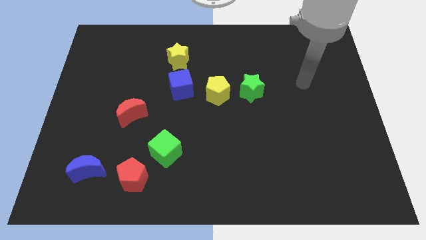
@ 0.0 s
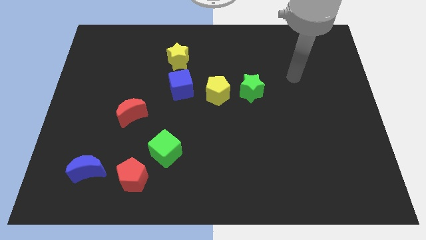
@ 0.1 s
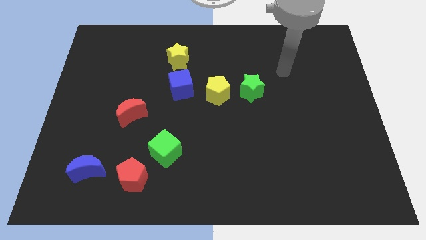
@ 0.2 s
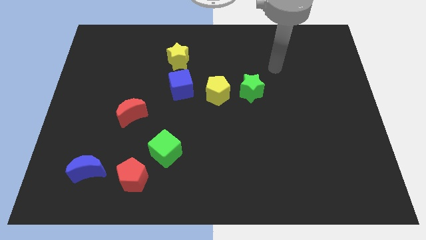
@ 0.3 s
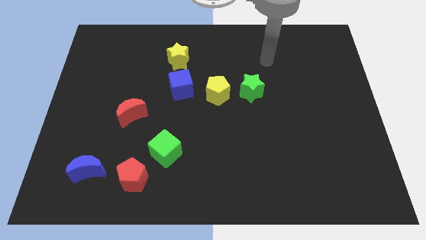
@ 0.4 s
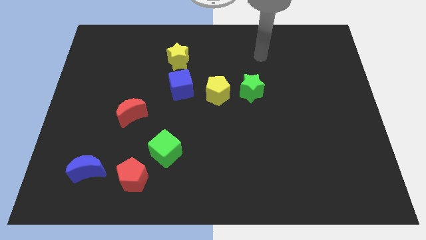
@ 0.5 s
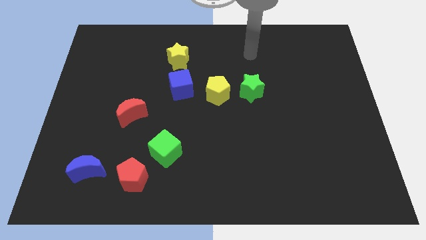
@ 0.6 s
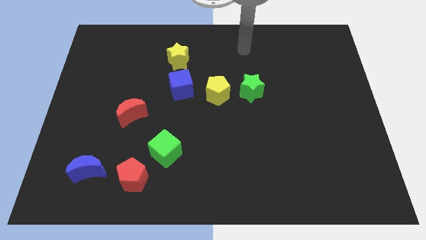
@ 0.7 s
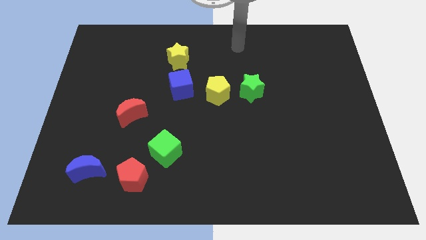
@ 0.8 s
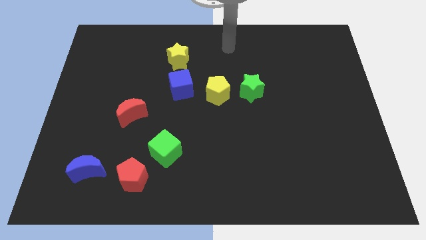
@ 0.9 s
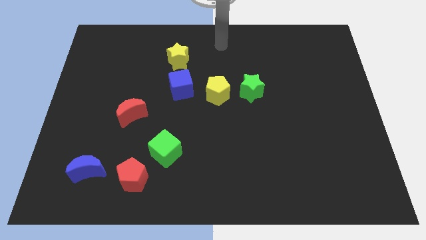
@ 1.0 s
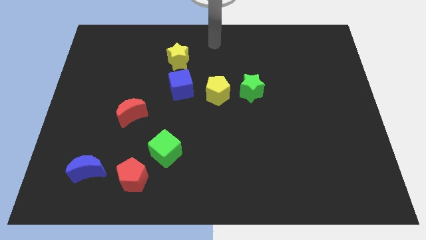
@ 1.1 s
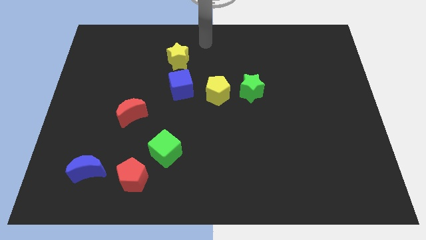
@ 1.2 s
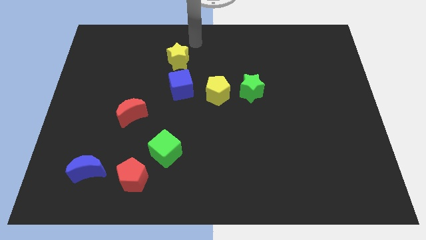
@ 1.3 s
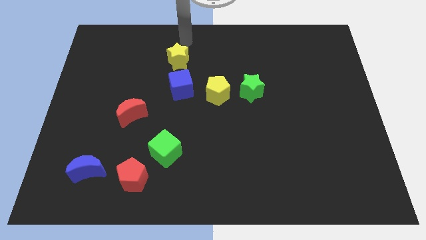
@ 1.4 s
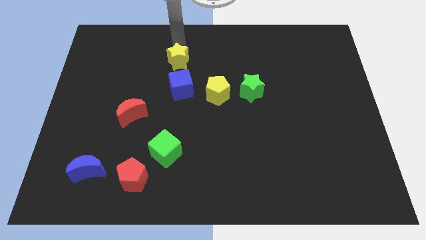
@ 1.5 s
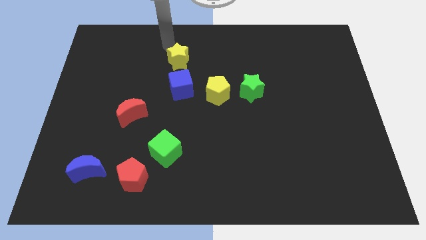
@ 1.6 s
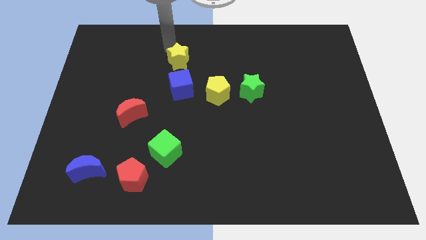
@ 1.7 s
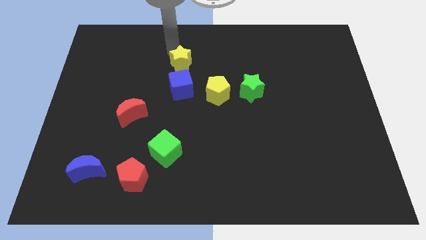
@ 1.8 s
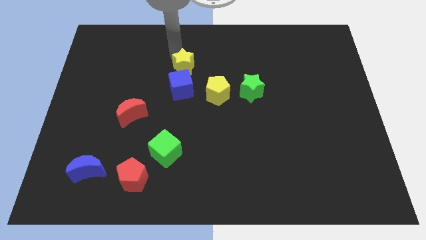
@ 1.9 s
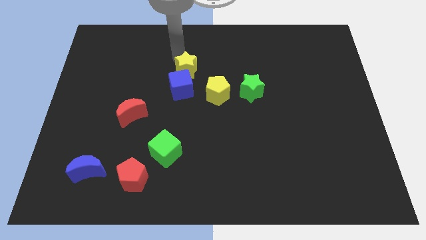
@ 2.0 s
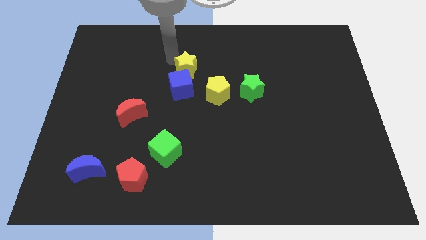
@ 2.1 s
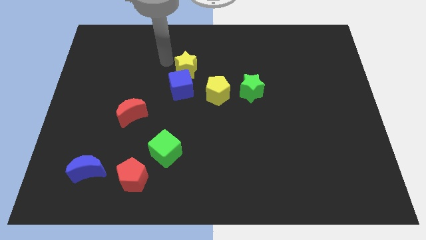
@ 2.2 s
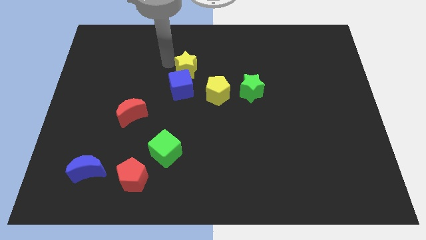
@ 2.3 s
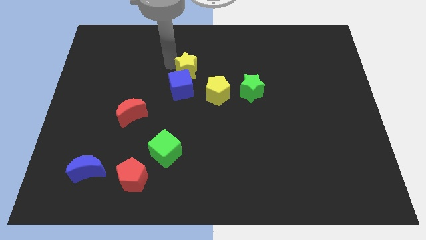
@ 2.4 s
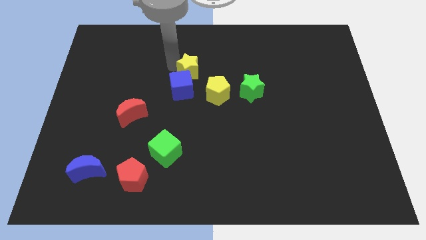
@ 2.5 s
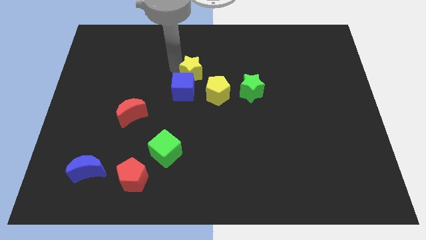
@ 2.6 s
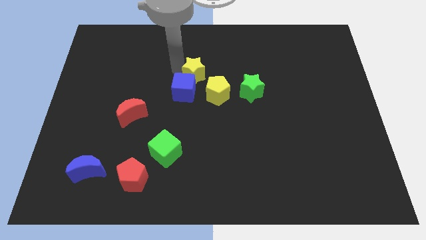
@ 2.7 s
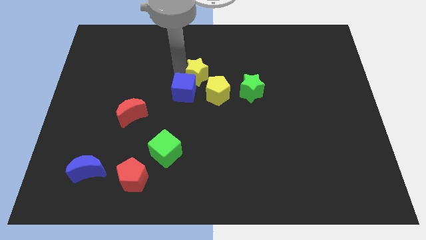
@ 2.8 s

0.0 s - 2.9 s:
slightly move the yellow star downwards and then right

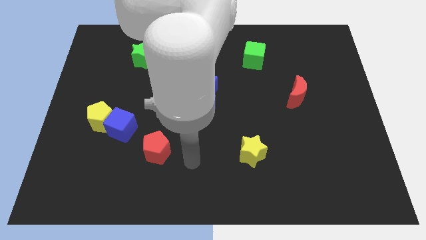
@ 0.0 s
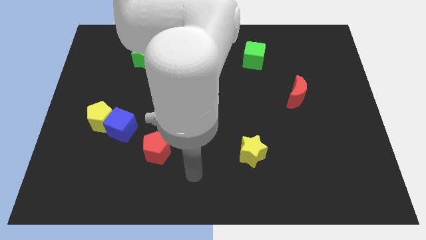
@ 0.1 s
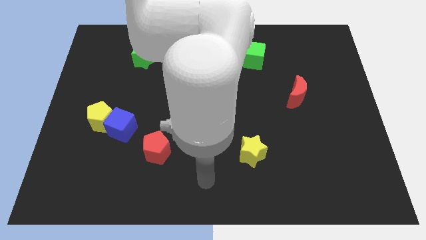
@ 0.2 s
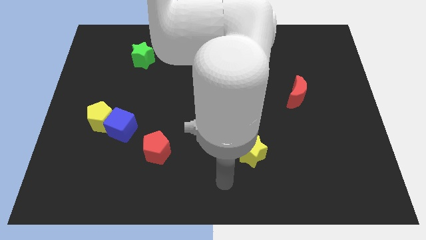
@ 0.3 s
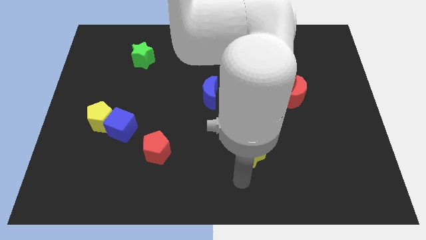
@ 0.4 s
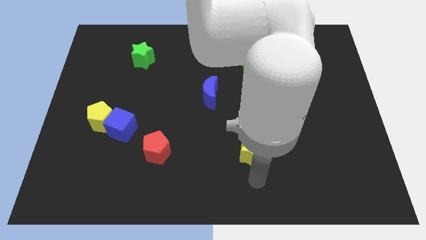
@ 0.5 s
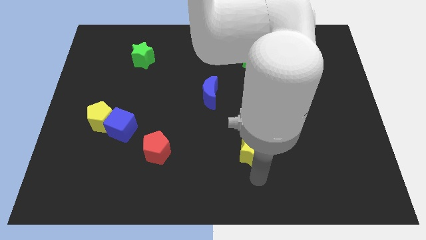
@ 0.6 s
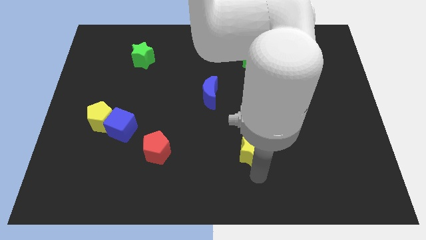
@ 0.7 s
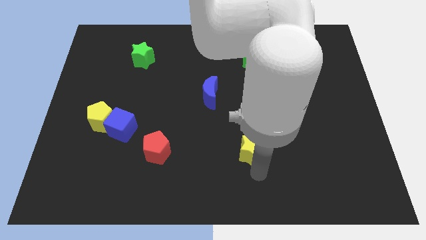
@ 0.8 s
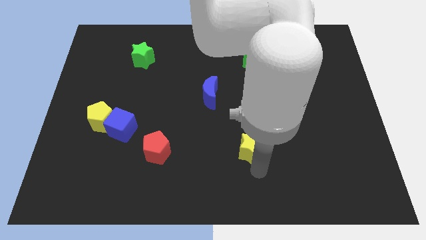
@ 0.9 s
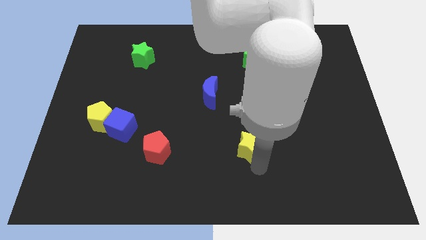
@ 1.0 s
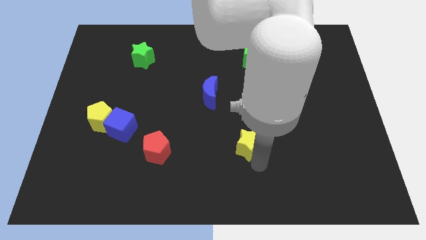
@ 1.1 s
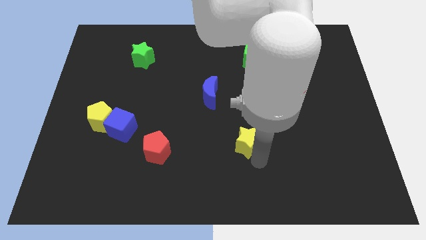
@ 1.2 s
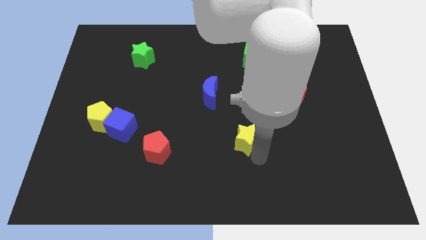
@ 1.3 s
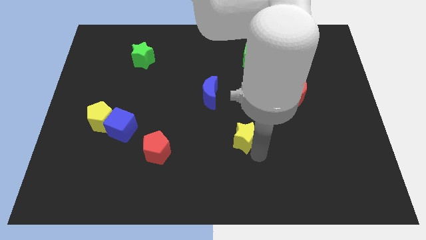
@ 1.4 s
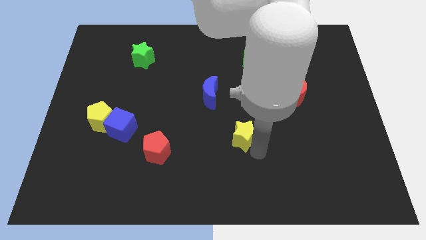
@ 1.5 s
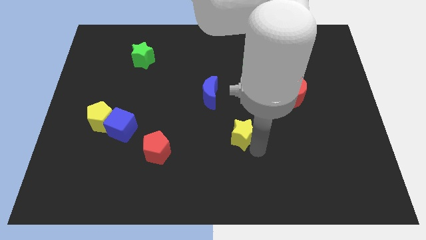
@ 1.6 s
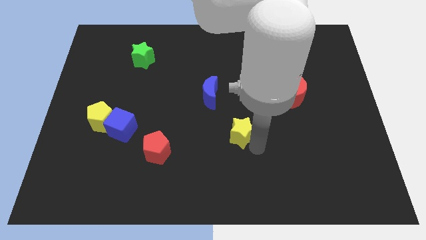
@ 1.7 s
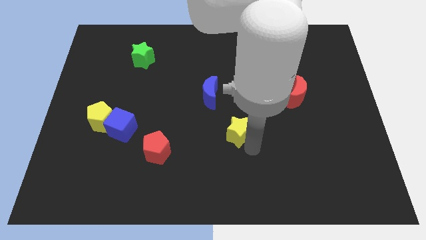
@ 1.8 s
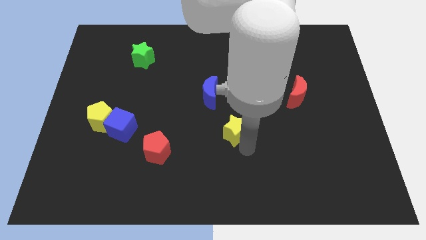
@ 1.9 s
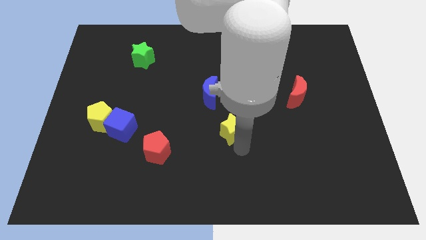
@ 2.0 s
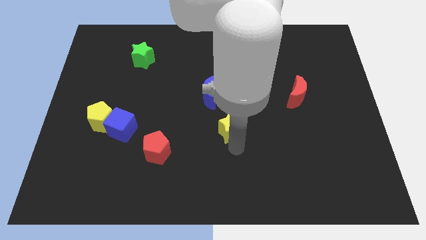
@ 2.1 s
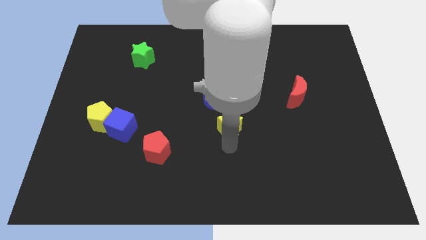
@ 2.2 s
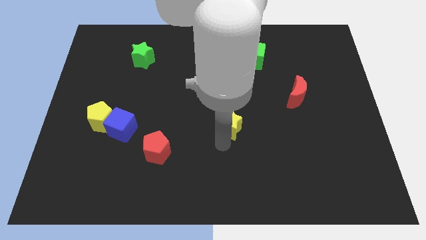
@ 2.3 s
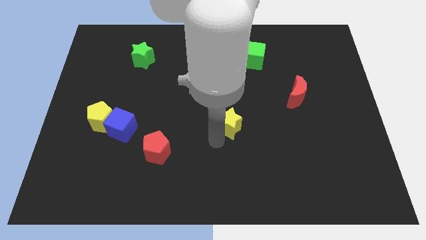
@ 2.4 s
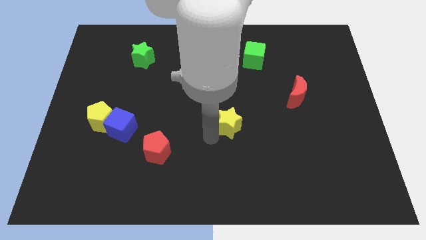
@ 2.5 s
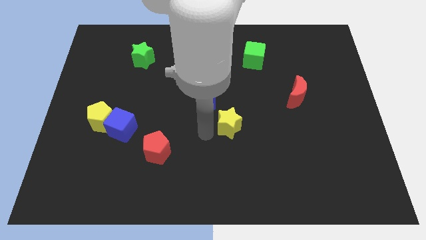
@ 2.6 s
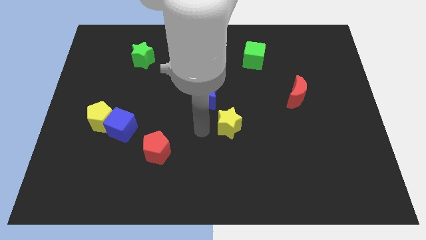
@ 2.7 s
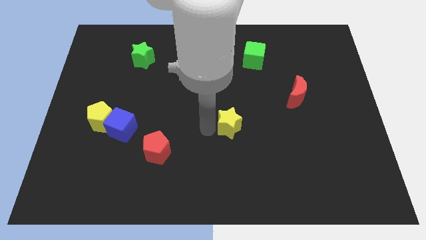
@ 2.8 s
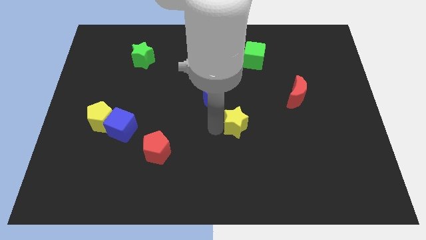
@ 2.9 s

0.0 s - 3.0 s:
move the yellow star upwards slightly

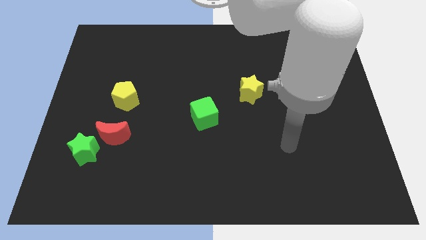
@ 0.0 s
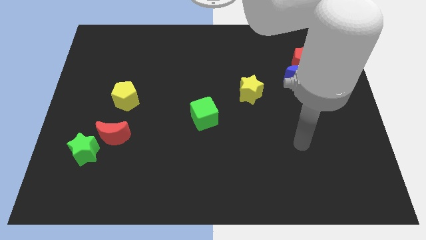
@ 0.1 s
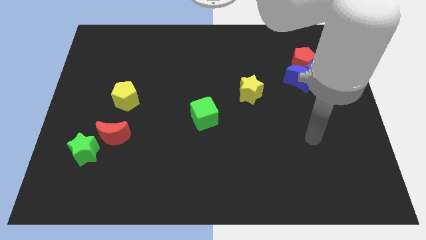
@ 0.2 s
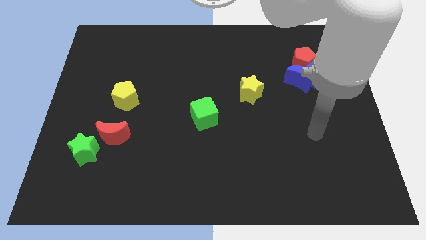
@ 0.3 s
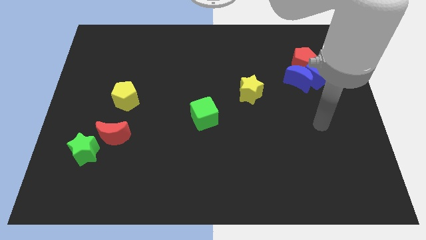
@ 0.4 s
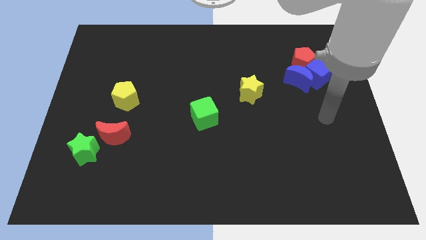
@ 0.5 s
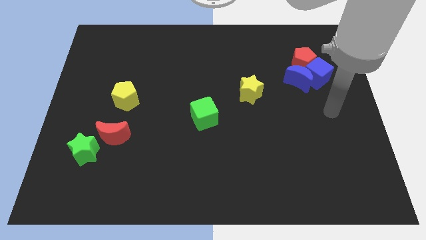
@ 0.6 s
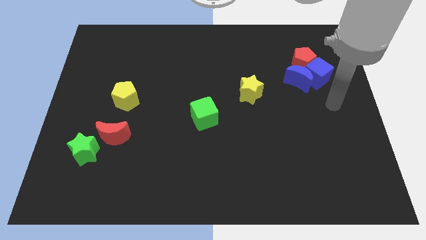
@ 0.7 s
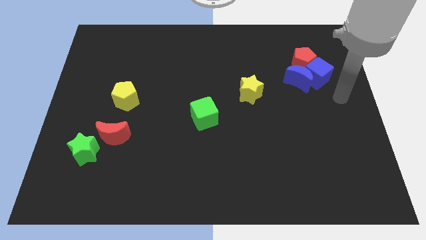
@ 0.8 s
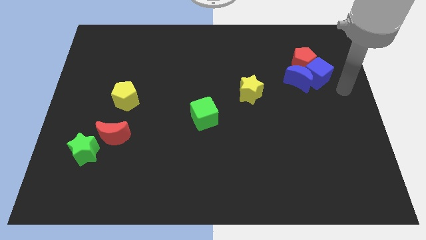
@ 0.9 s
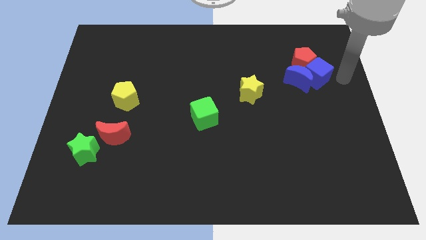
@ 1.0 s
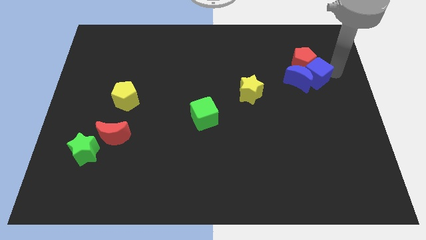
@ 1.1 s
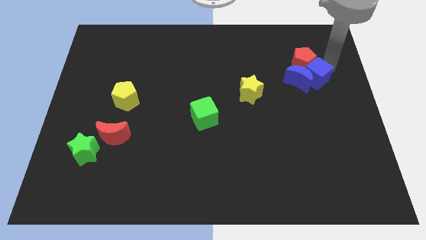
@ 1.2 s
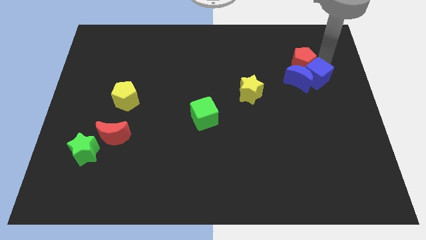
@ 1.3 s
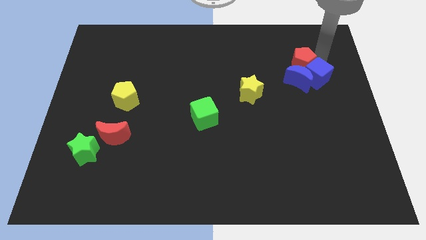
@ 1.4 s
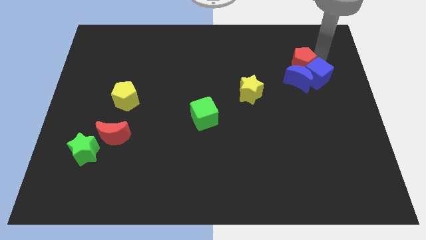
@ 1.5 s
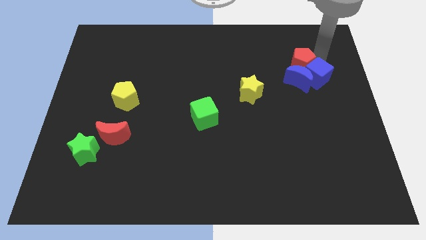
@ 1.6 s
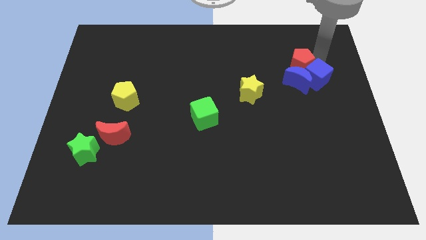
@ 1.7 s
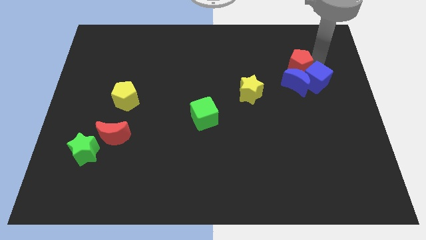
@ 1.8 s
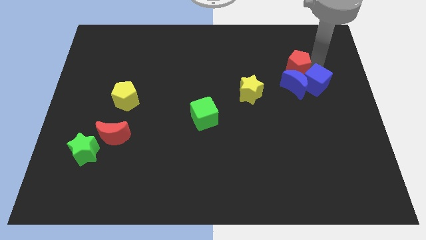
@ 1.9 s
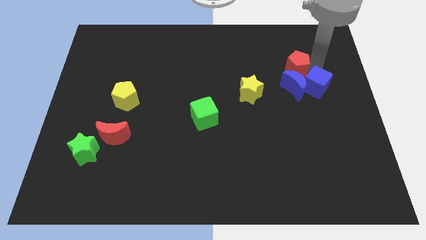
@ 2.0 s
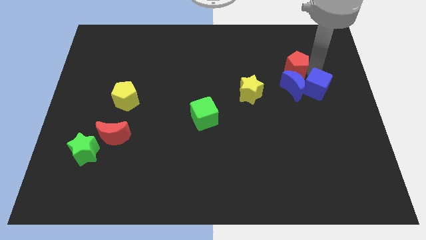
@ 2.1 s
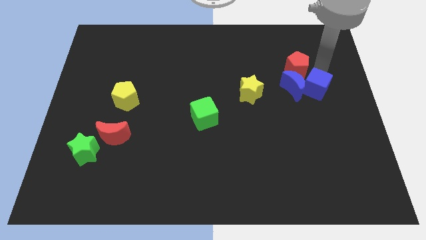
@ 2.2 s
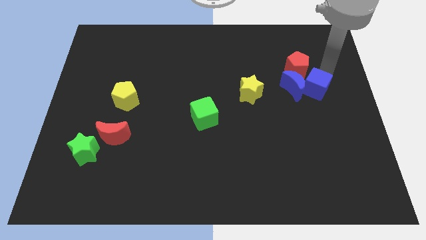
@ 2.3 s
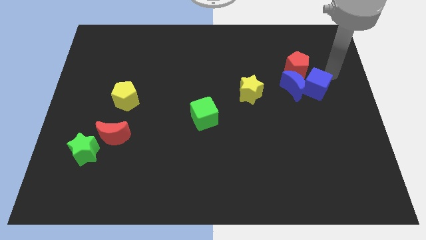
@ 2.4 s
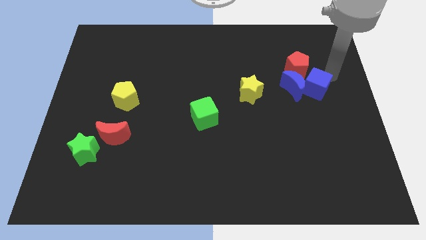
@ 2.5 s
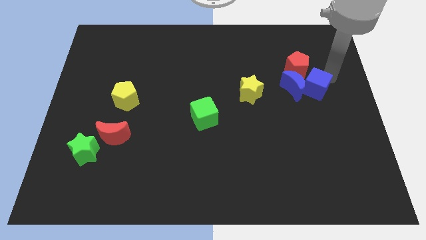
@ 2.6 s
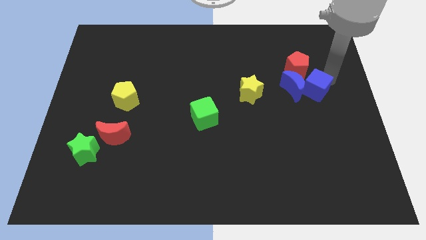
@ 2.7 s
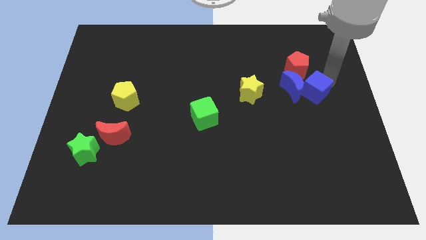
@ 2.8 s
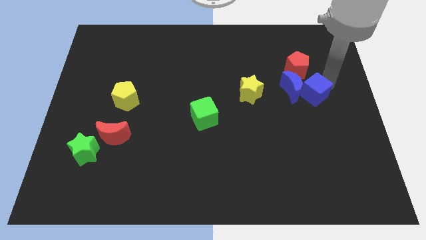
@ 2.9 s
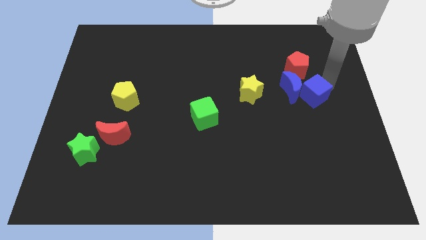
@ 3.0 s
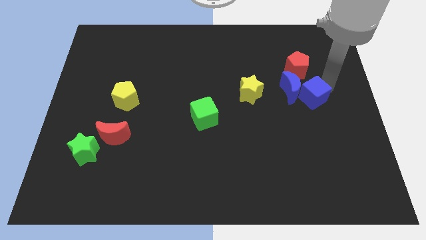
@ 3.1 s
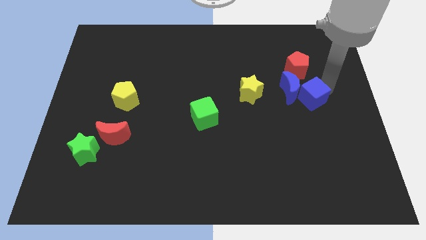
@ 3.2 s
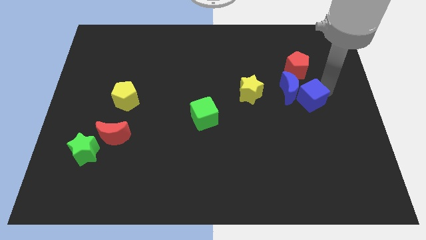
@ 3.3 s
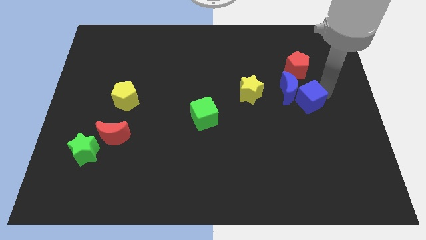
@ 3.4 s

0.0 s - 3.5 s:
slightly move the blue cube diagonally down and left
